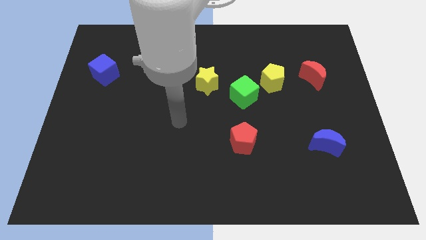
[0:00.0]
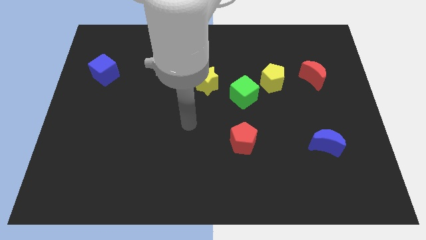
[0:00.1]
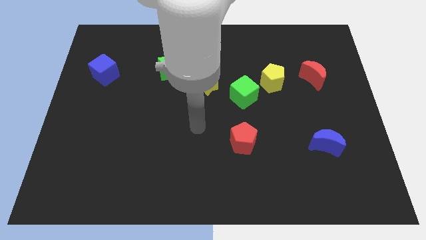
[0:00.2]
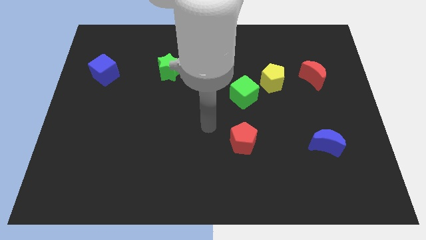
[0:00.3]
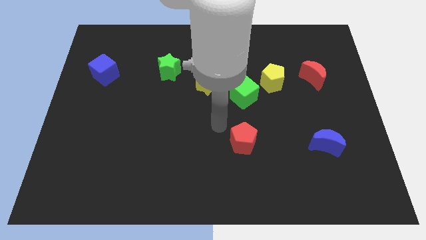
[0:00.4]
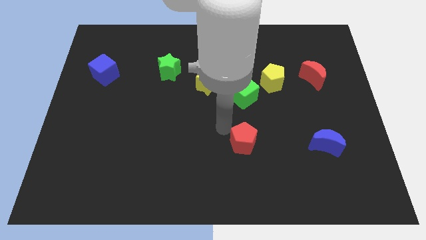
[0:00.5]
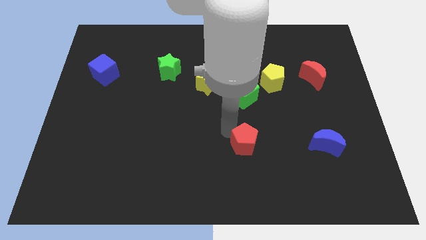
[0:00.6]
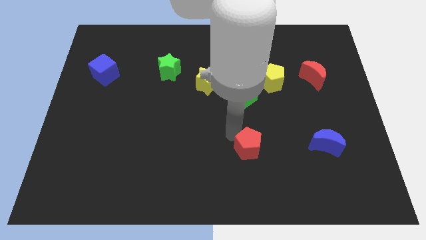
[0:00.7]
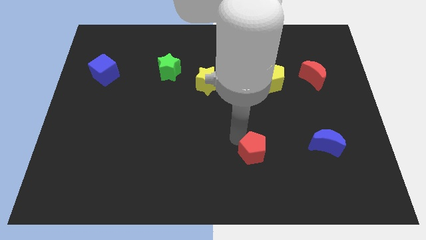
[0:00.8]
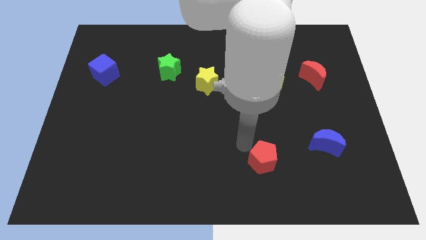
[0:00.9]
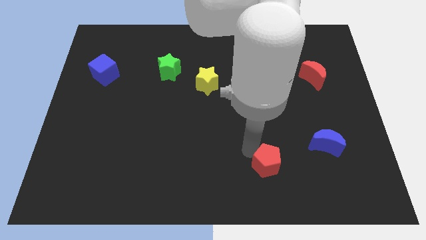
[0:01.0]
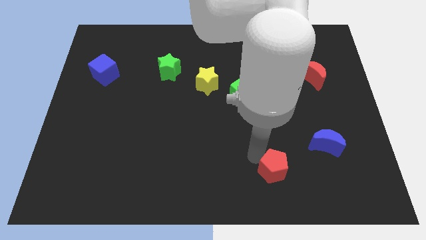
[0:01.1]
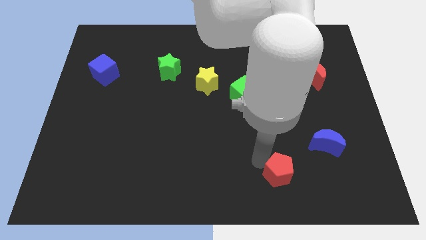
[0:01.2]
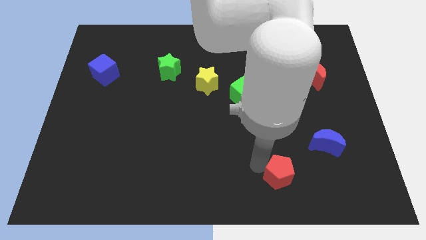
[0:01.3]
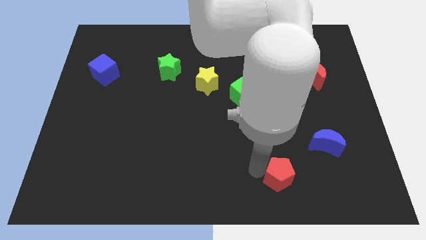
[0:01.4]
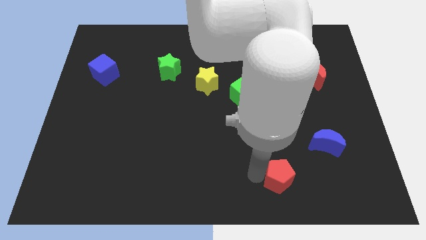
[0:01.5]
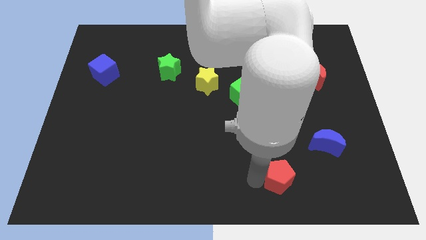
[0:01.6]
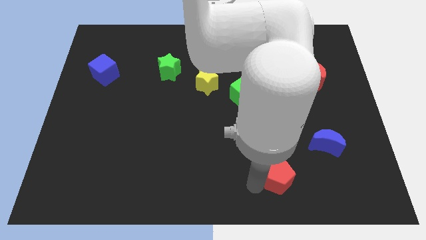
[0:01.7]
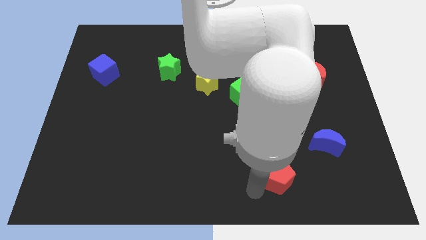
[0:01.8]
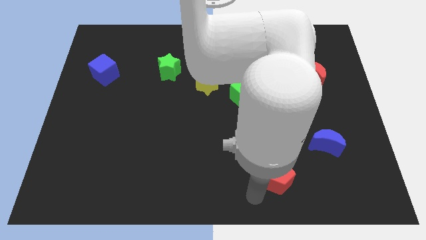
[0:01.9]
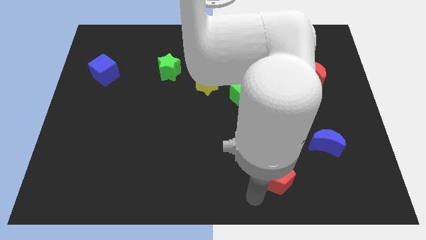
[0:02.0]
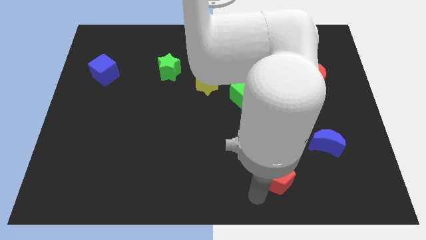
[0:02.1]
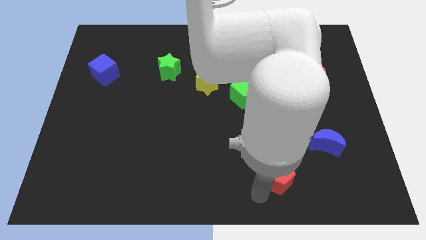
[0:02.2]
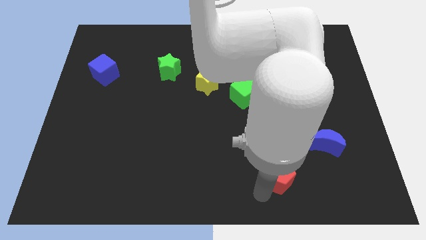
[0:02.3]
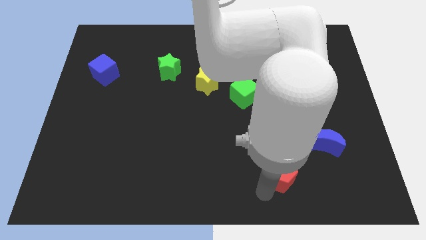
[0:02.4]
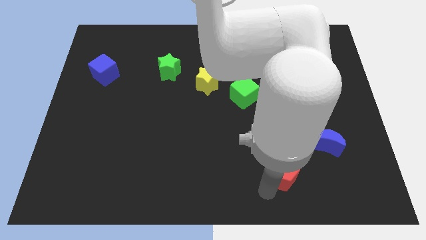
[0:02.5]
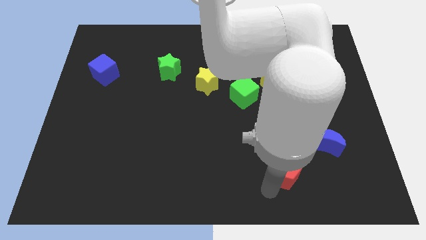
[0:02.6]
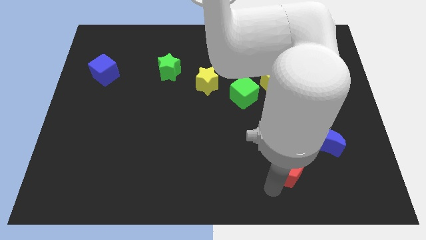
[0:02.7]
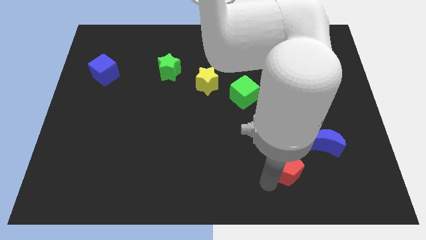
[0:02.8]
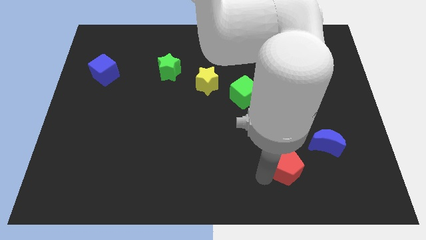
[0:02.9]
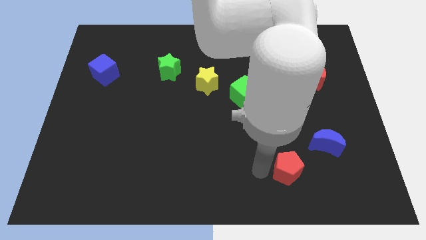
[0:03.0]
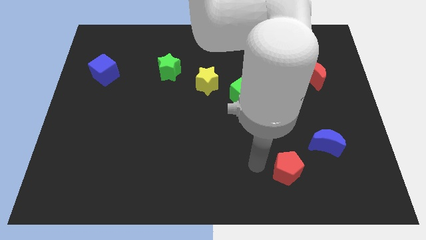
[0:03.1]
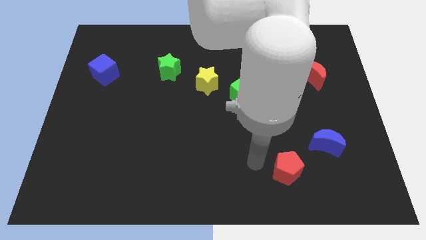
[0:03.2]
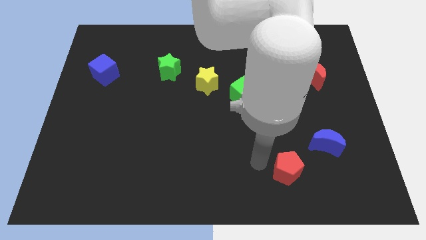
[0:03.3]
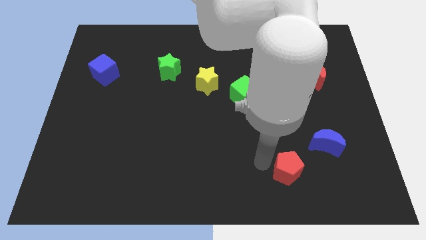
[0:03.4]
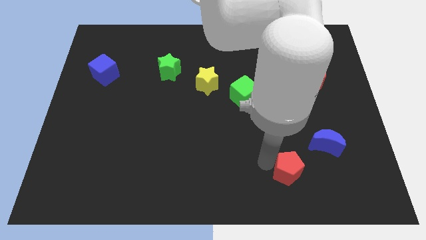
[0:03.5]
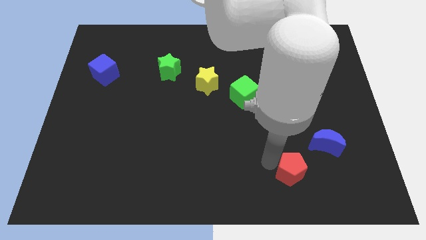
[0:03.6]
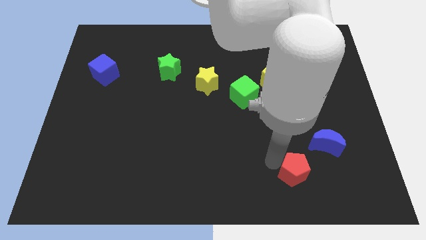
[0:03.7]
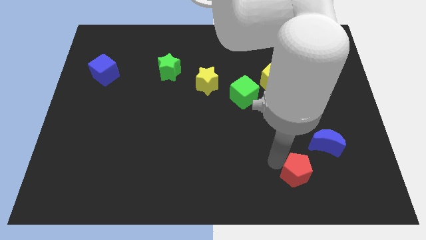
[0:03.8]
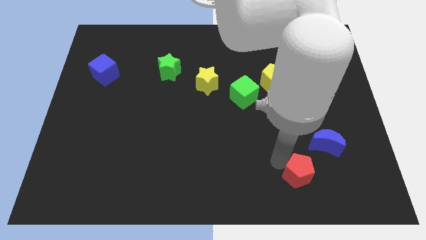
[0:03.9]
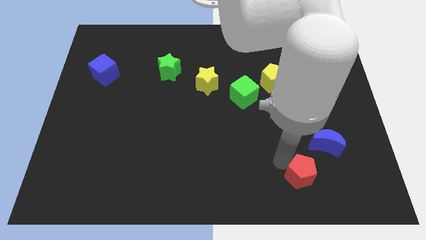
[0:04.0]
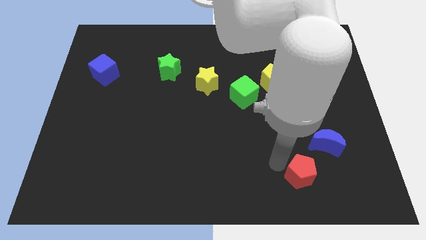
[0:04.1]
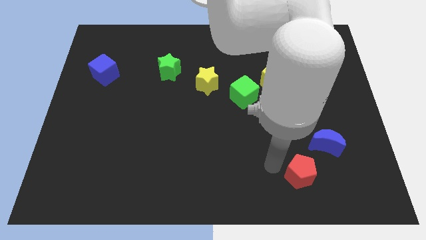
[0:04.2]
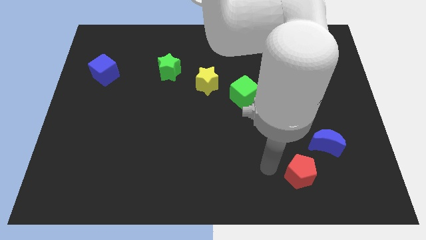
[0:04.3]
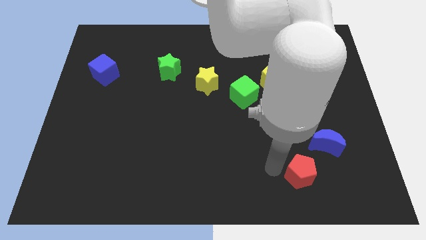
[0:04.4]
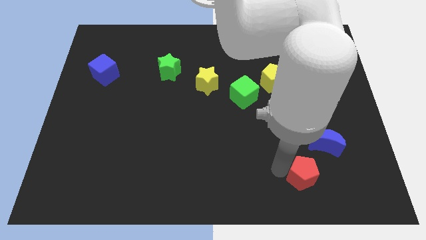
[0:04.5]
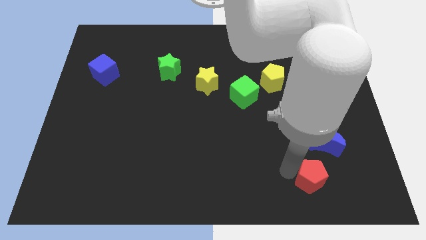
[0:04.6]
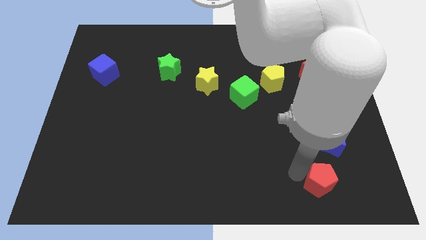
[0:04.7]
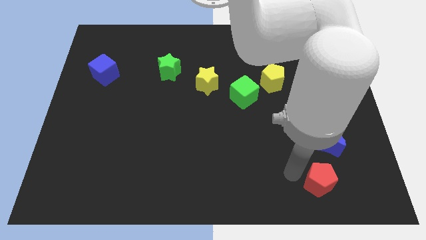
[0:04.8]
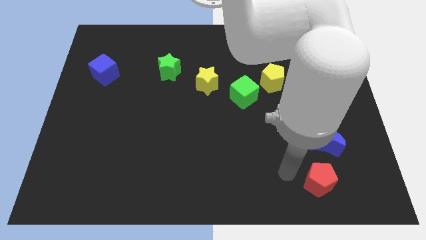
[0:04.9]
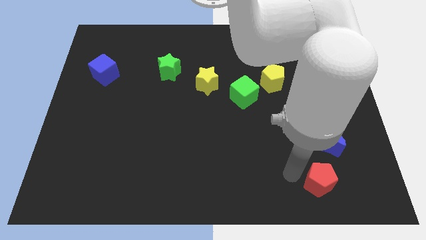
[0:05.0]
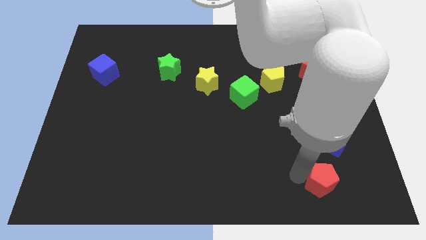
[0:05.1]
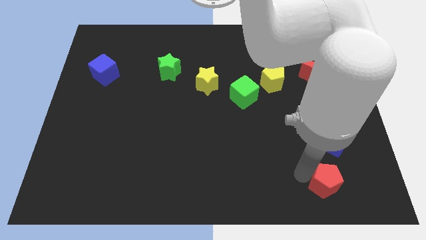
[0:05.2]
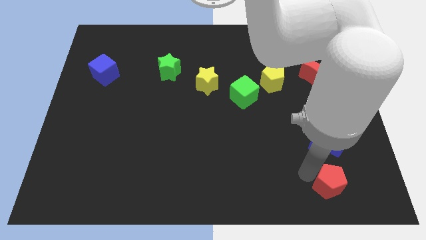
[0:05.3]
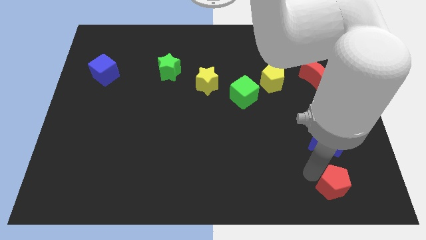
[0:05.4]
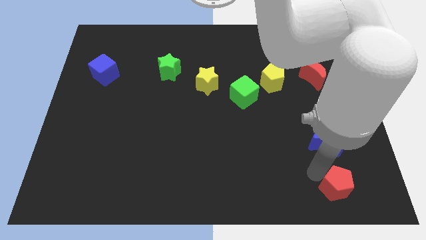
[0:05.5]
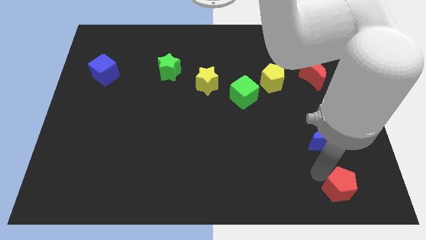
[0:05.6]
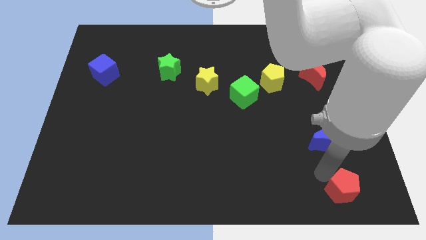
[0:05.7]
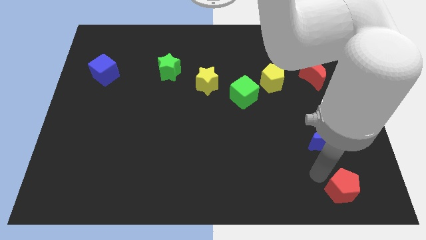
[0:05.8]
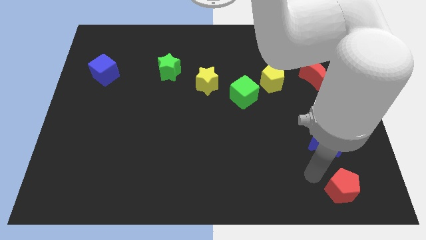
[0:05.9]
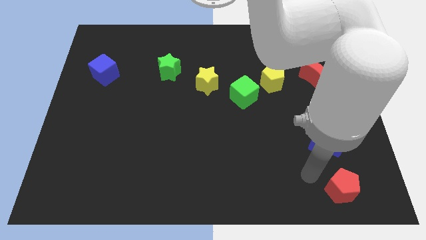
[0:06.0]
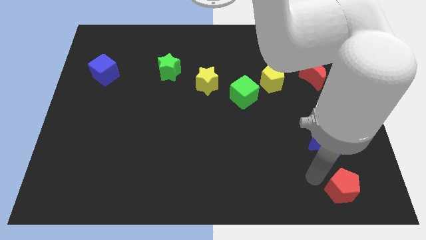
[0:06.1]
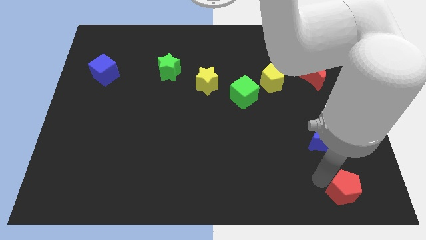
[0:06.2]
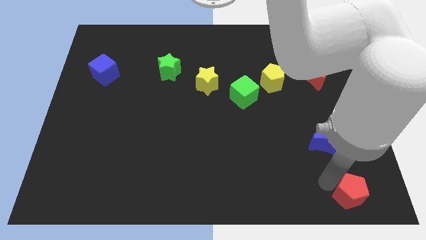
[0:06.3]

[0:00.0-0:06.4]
put the red pentagon to the bottom right corner
